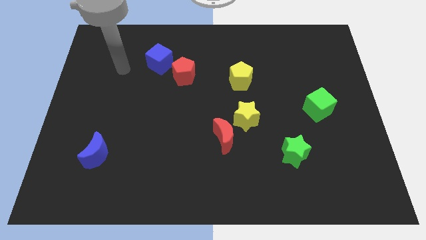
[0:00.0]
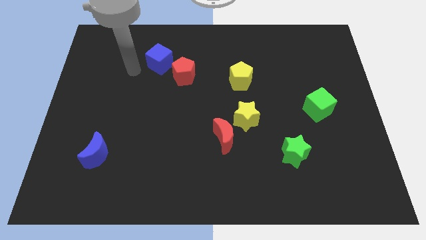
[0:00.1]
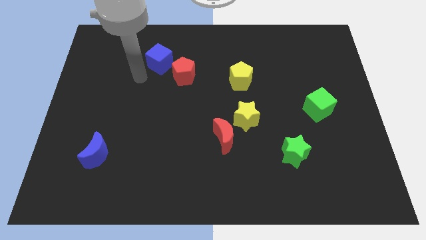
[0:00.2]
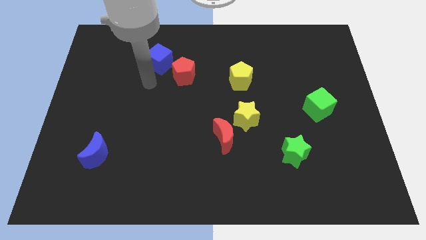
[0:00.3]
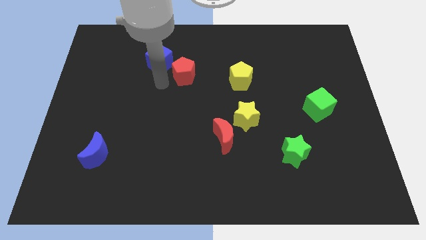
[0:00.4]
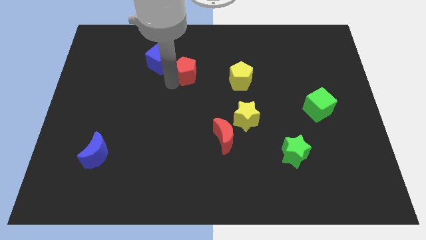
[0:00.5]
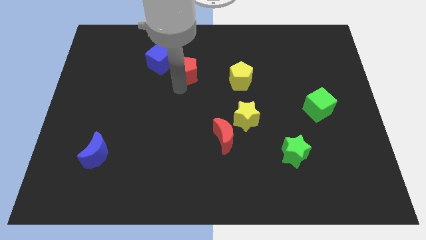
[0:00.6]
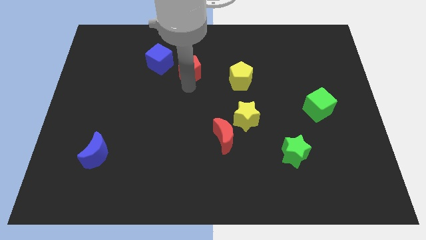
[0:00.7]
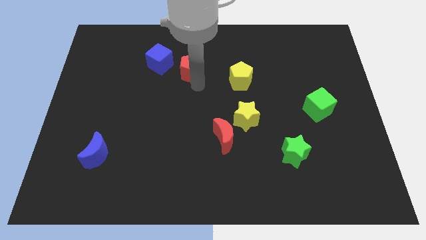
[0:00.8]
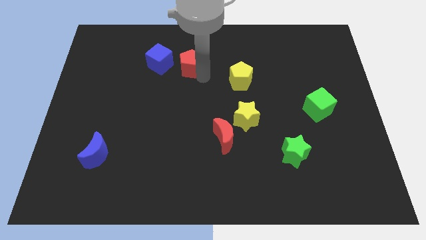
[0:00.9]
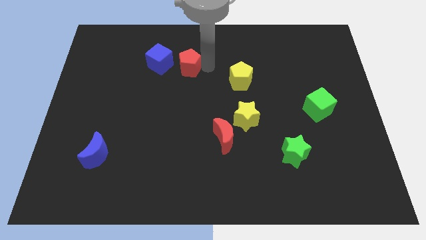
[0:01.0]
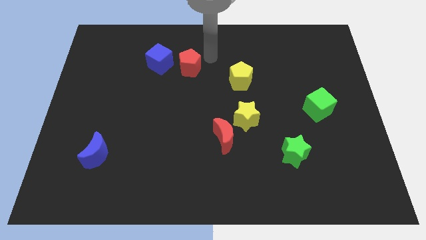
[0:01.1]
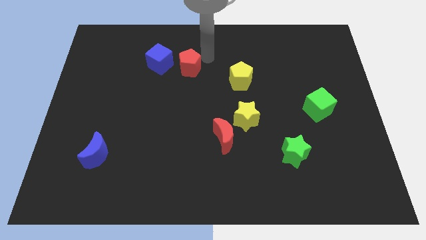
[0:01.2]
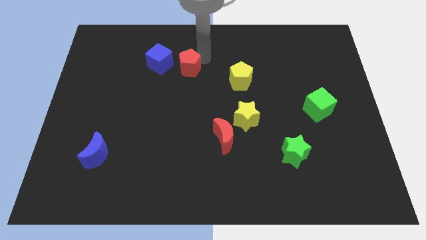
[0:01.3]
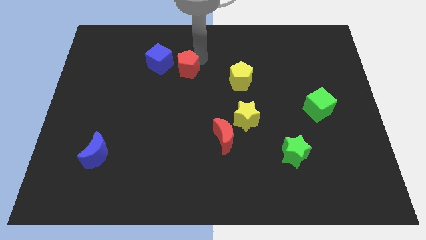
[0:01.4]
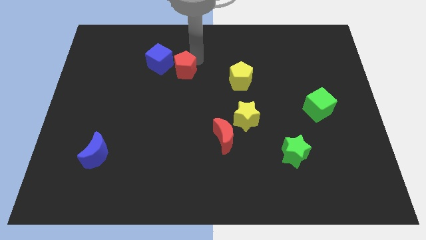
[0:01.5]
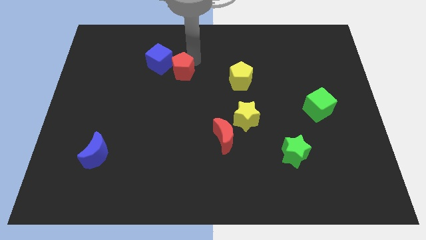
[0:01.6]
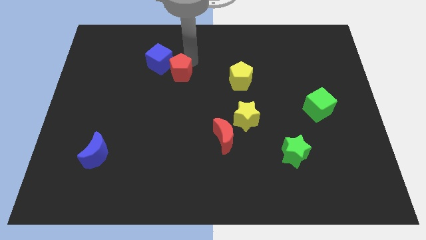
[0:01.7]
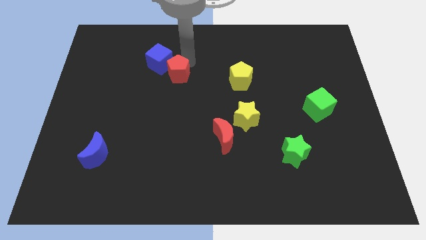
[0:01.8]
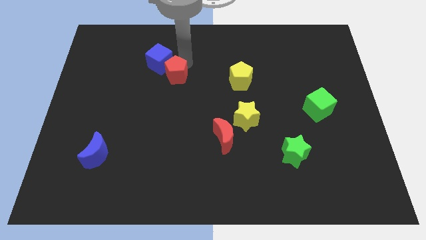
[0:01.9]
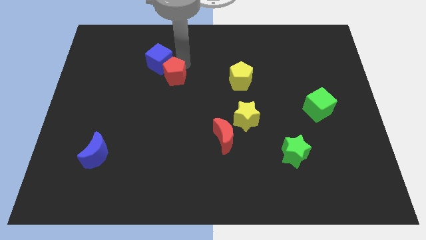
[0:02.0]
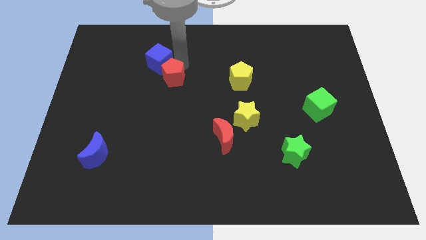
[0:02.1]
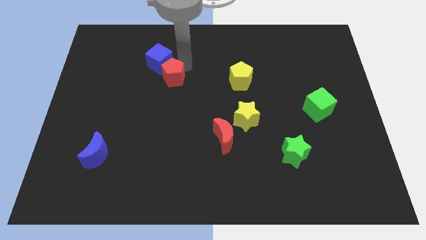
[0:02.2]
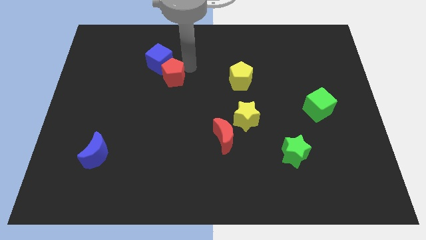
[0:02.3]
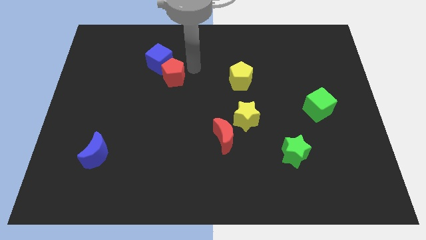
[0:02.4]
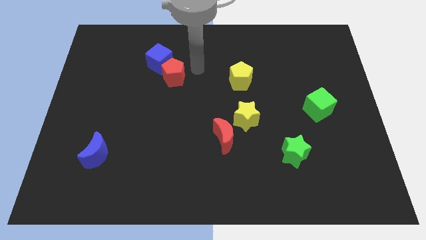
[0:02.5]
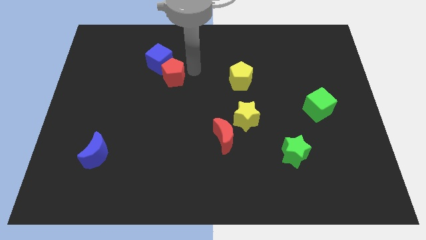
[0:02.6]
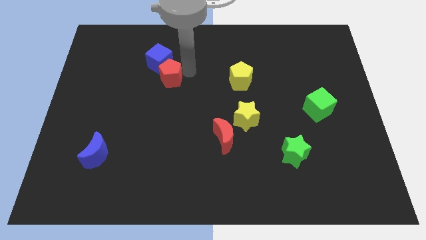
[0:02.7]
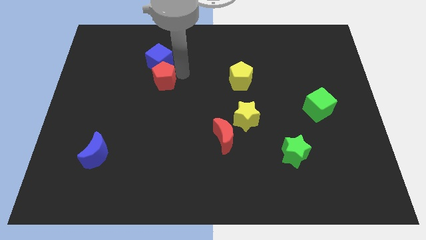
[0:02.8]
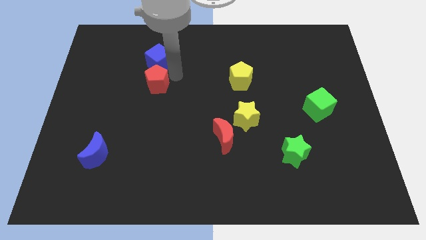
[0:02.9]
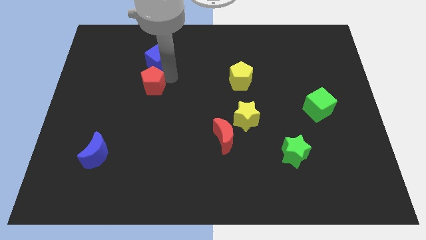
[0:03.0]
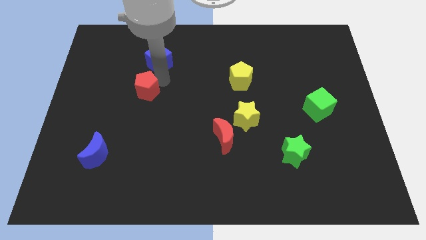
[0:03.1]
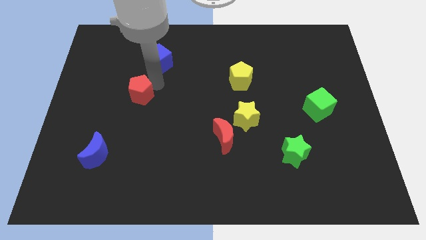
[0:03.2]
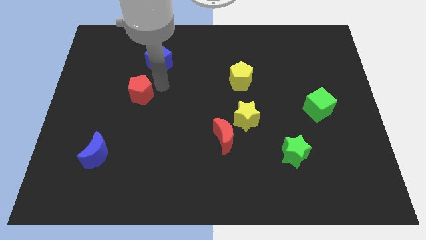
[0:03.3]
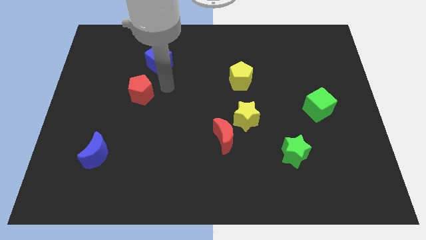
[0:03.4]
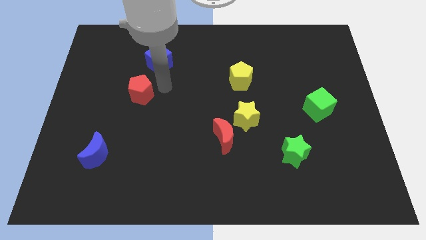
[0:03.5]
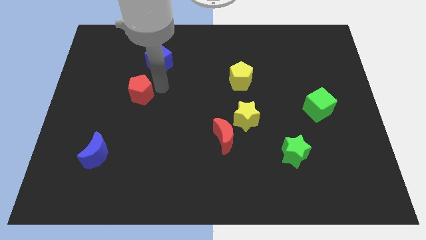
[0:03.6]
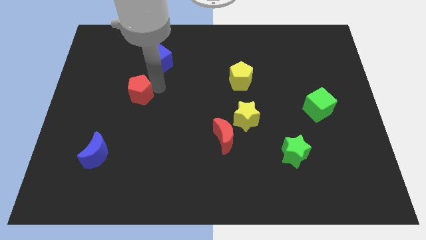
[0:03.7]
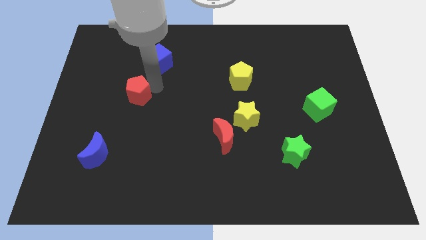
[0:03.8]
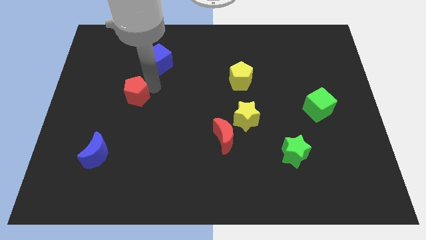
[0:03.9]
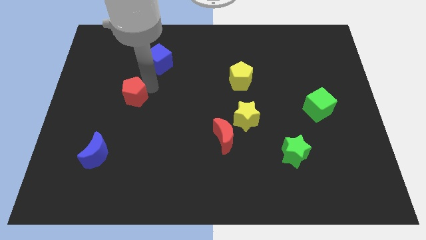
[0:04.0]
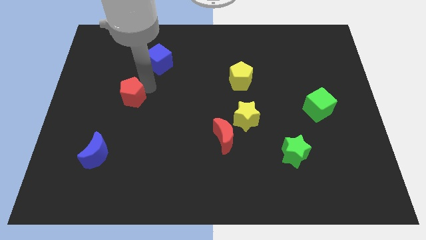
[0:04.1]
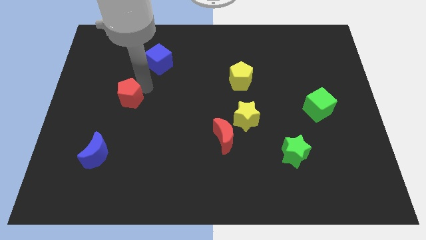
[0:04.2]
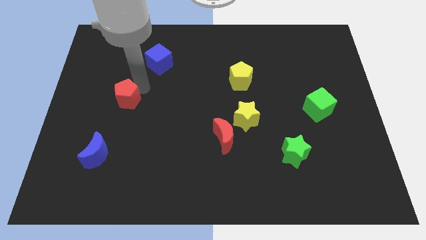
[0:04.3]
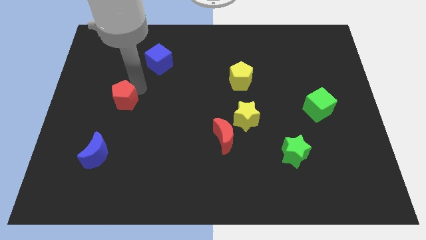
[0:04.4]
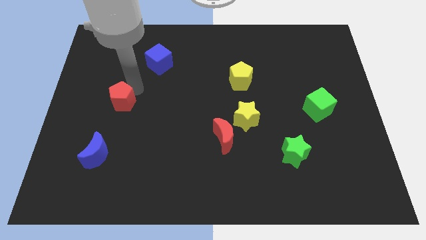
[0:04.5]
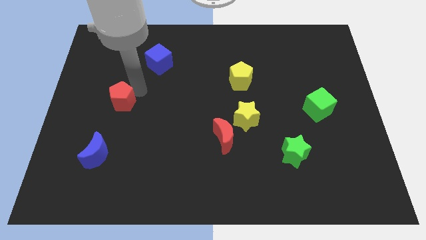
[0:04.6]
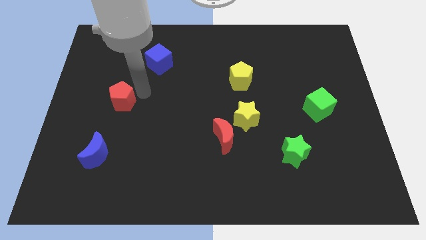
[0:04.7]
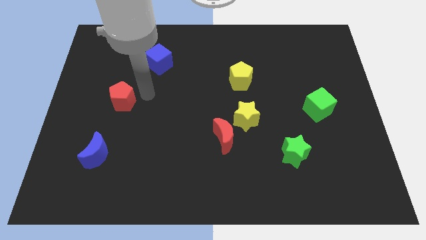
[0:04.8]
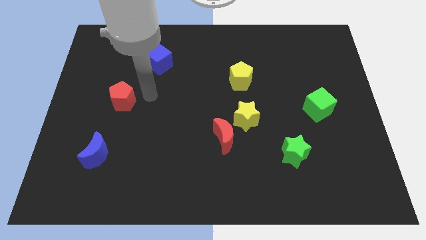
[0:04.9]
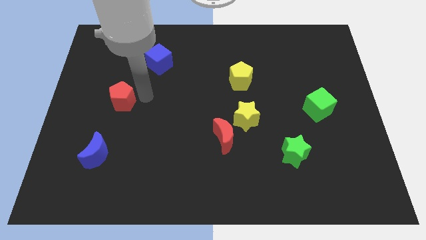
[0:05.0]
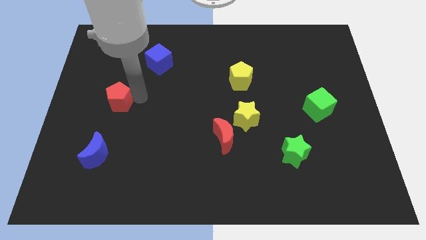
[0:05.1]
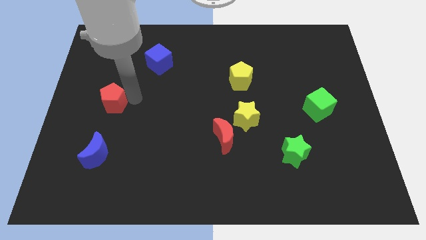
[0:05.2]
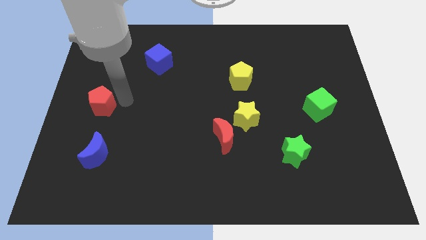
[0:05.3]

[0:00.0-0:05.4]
put the red pentagon to the left side

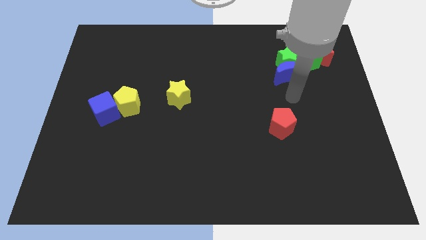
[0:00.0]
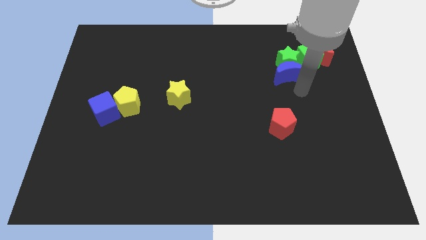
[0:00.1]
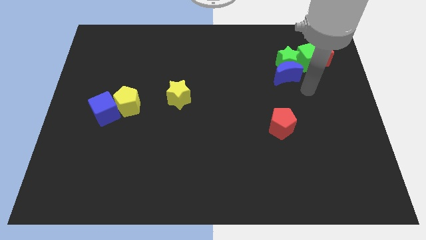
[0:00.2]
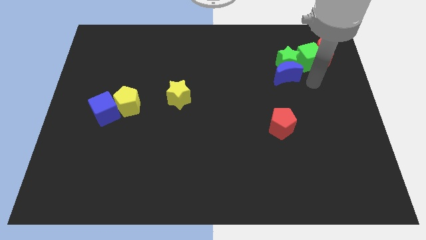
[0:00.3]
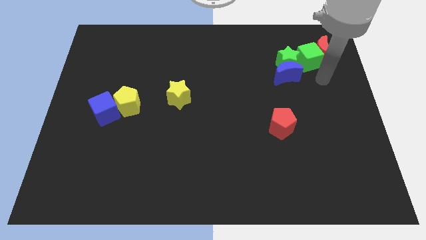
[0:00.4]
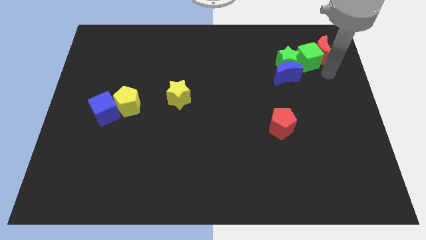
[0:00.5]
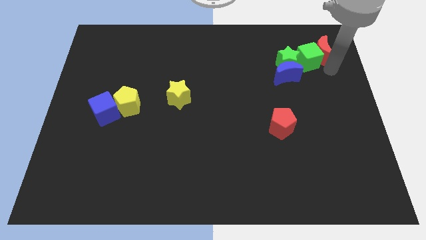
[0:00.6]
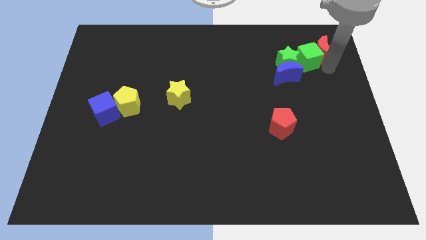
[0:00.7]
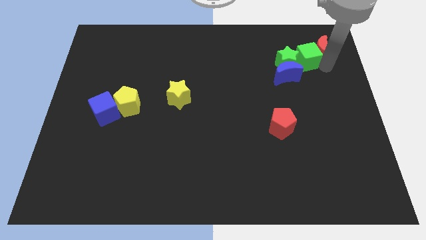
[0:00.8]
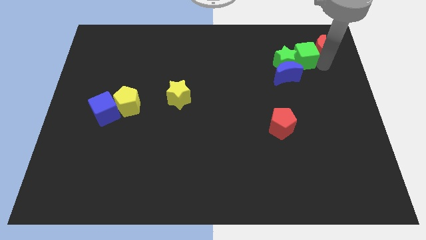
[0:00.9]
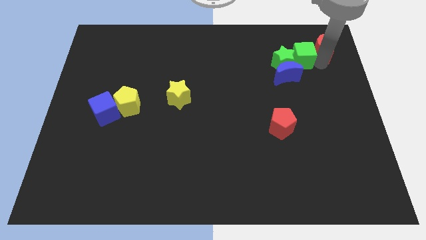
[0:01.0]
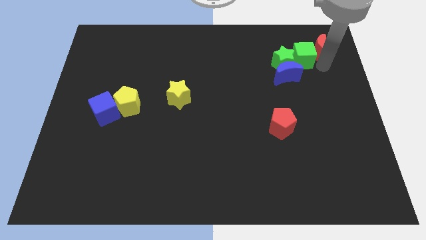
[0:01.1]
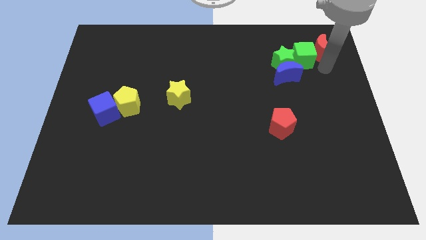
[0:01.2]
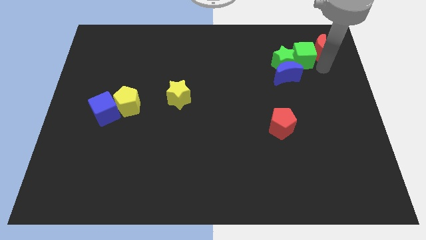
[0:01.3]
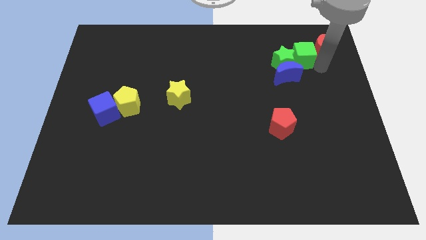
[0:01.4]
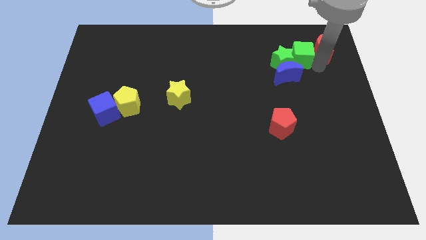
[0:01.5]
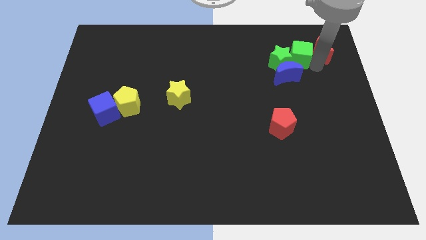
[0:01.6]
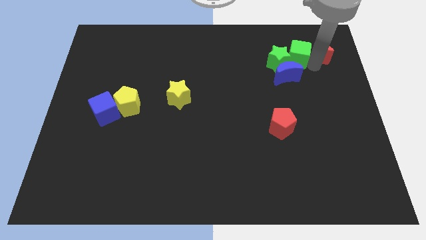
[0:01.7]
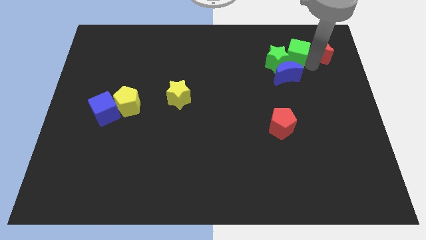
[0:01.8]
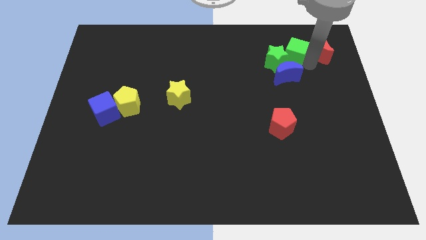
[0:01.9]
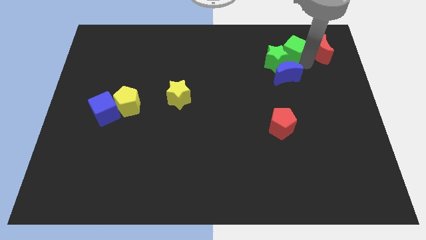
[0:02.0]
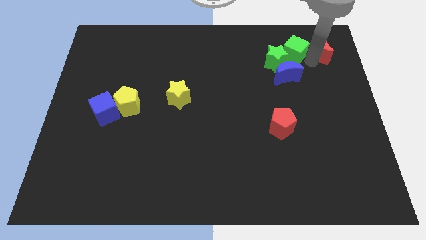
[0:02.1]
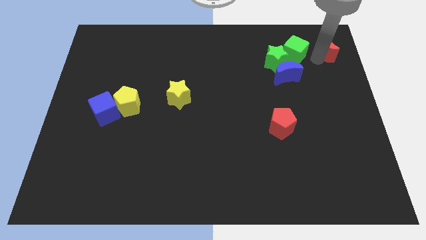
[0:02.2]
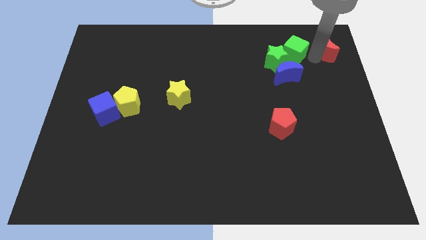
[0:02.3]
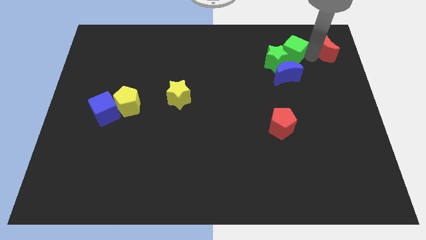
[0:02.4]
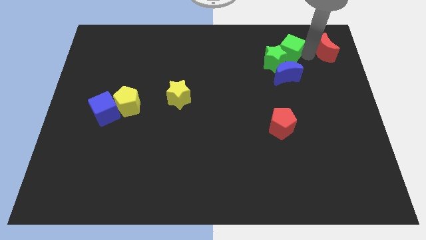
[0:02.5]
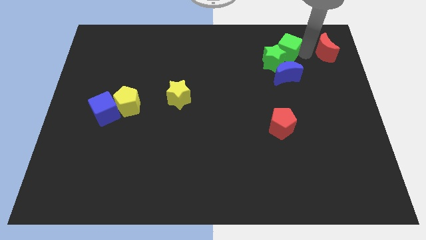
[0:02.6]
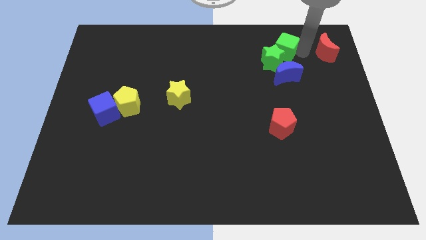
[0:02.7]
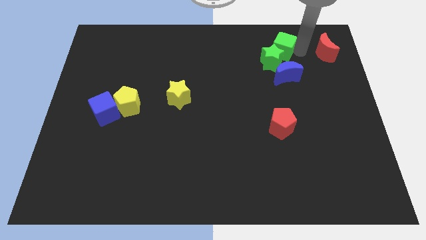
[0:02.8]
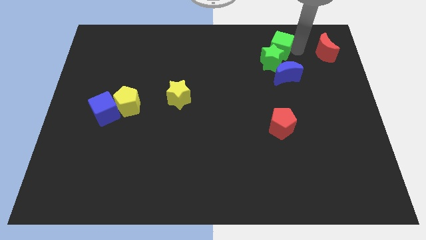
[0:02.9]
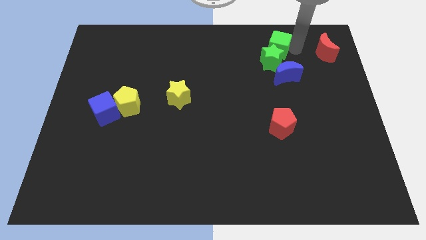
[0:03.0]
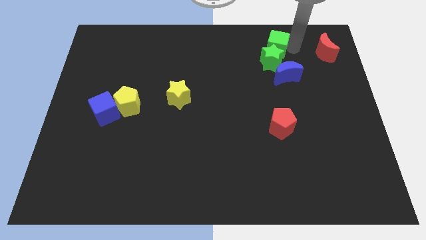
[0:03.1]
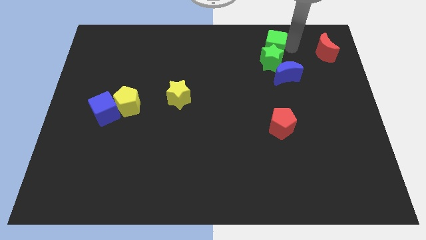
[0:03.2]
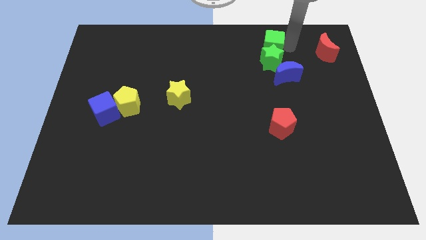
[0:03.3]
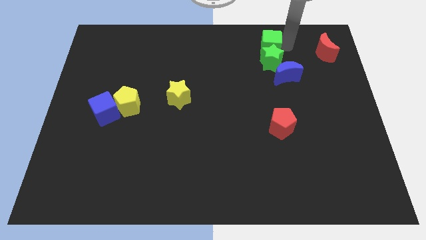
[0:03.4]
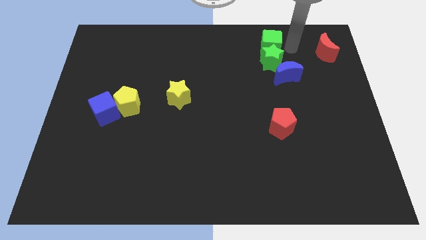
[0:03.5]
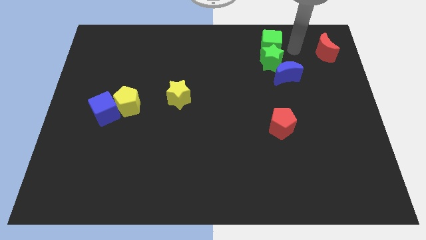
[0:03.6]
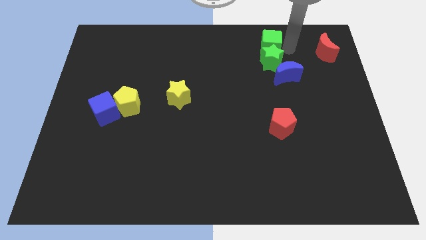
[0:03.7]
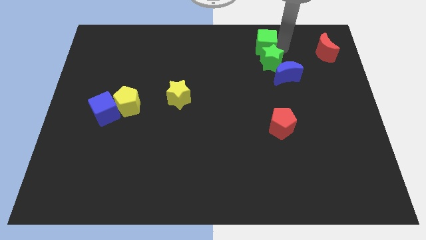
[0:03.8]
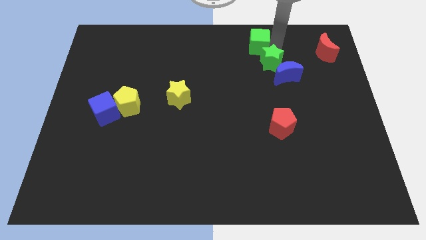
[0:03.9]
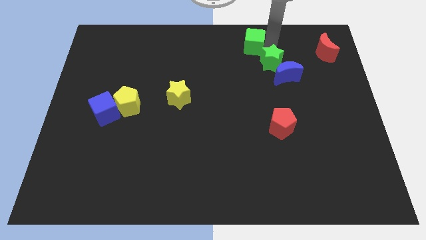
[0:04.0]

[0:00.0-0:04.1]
push the green cube to the towards your base
